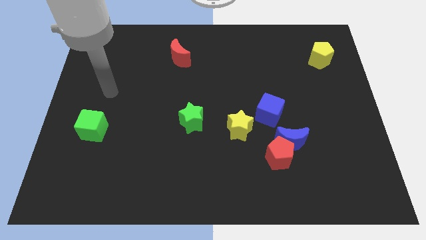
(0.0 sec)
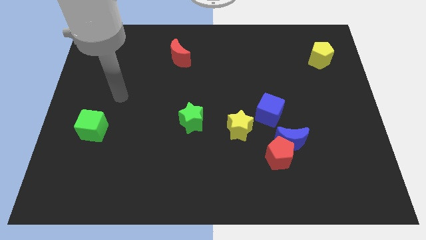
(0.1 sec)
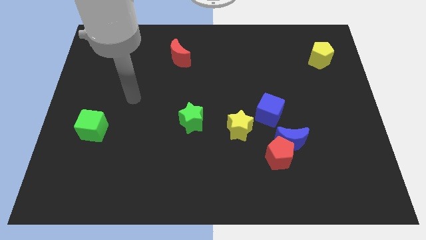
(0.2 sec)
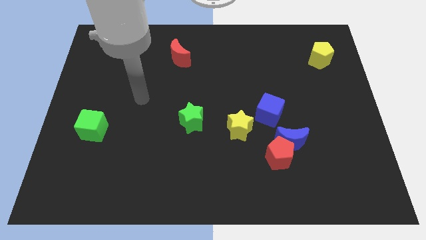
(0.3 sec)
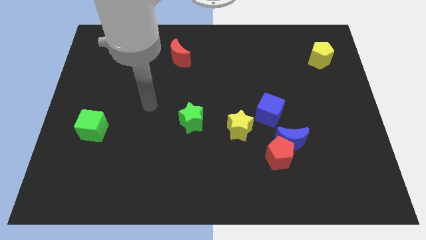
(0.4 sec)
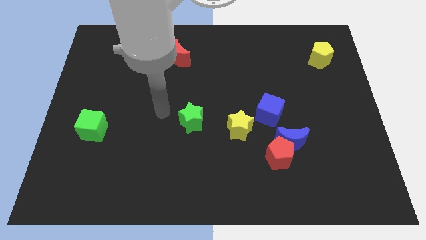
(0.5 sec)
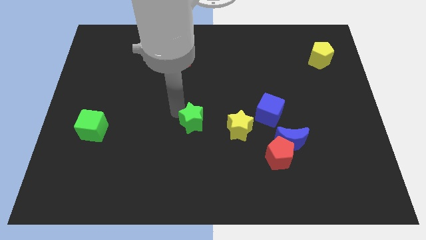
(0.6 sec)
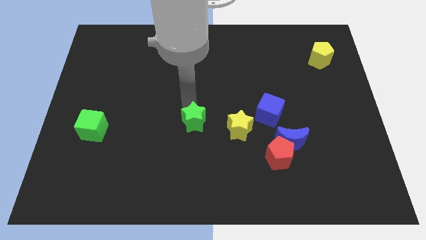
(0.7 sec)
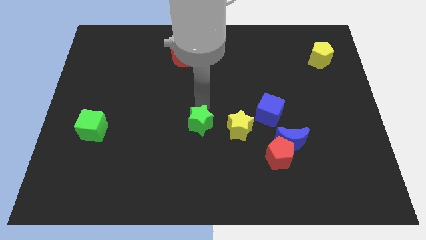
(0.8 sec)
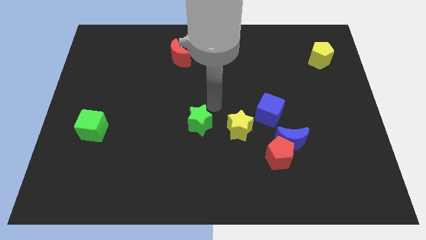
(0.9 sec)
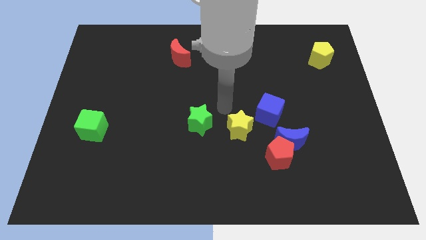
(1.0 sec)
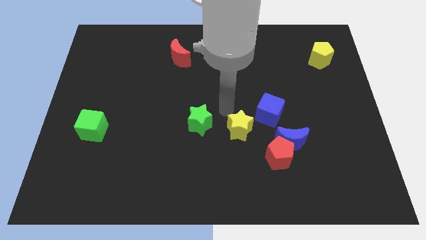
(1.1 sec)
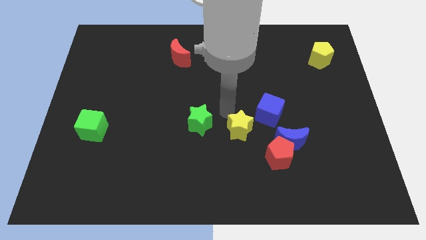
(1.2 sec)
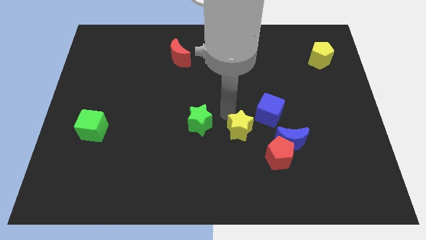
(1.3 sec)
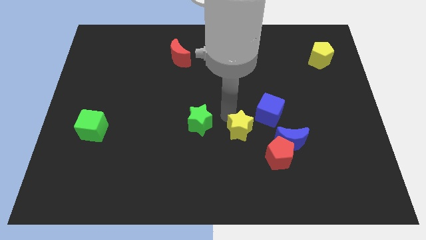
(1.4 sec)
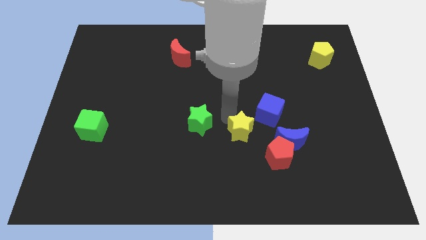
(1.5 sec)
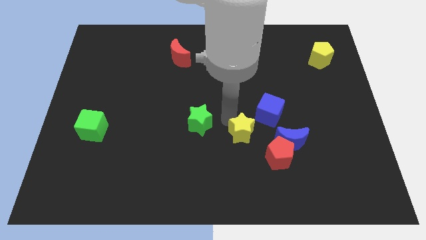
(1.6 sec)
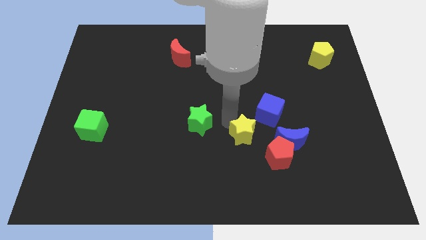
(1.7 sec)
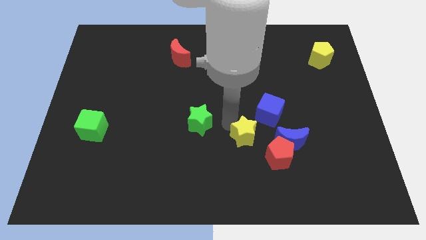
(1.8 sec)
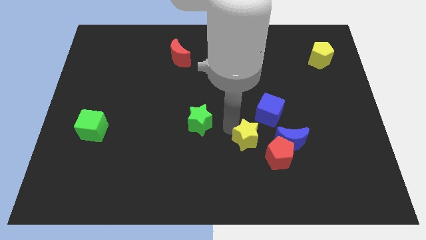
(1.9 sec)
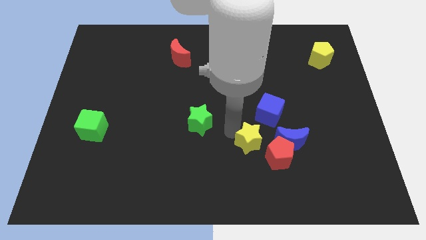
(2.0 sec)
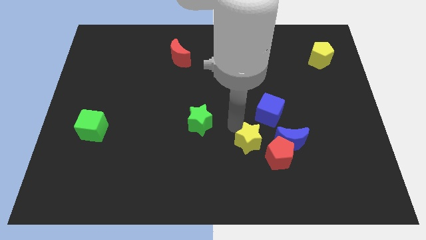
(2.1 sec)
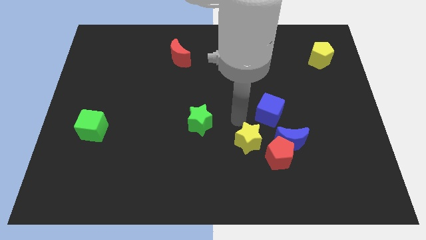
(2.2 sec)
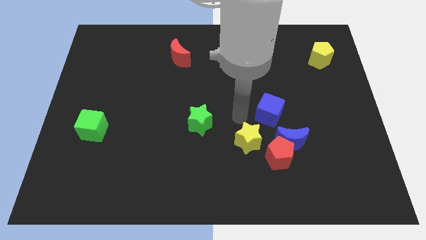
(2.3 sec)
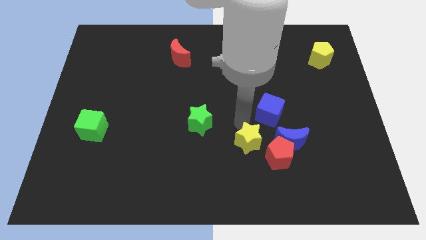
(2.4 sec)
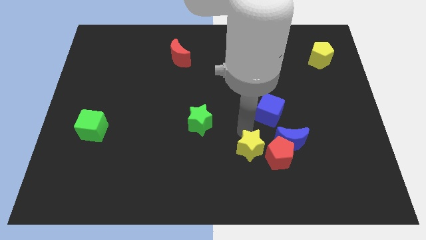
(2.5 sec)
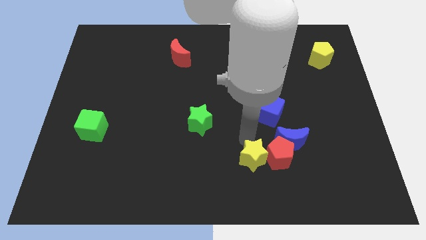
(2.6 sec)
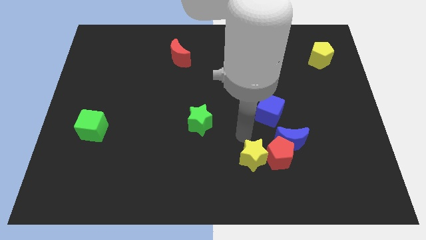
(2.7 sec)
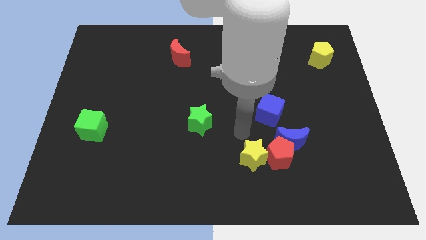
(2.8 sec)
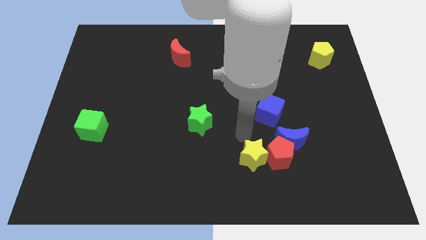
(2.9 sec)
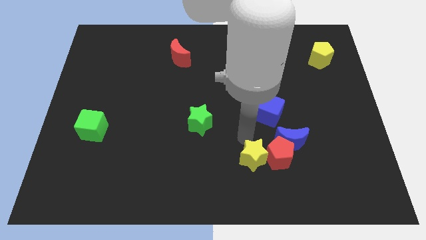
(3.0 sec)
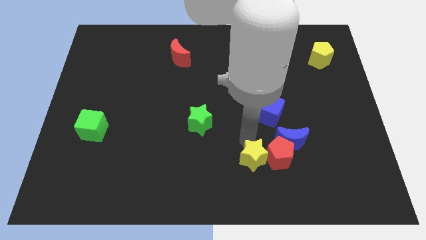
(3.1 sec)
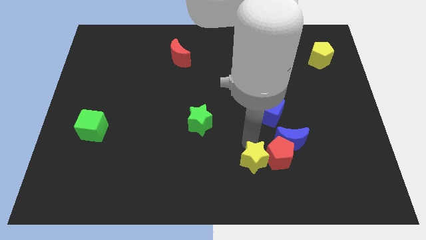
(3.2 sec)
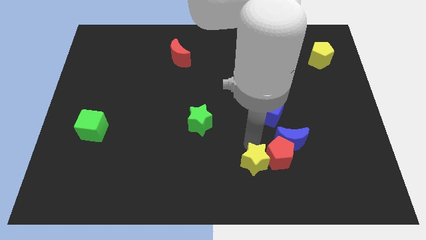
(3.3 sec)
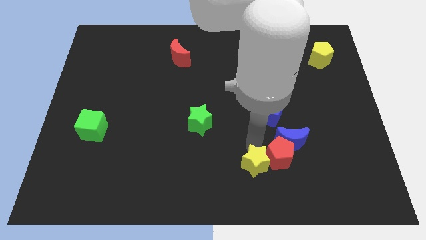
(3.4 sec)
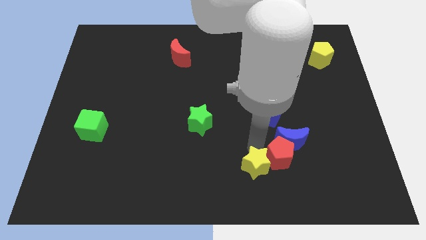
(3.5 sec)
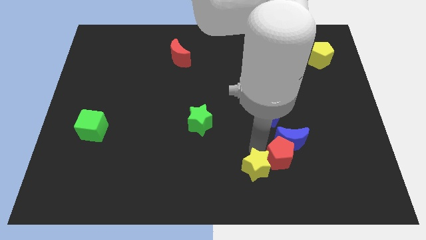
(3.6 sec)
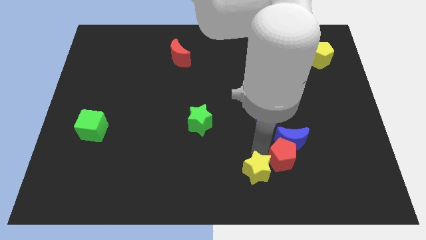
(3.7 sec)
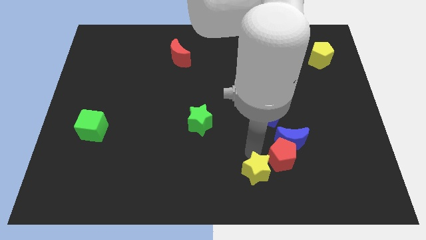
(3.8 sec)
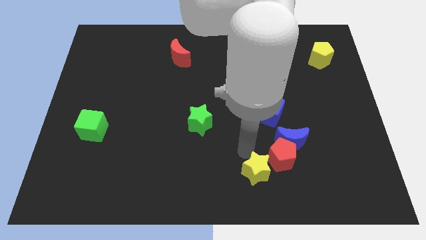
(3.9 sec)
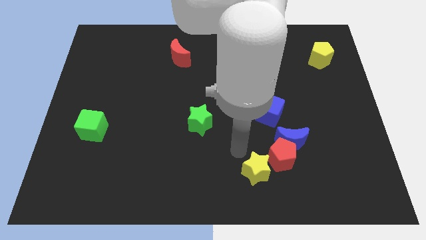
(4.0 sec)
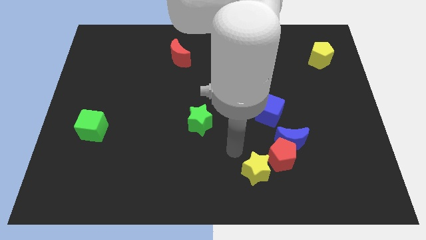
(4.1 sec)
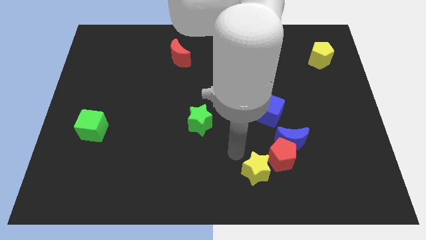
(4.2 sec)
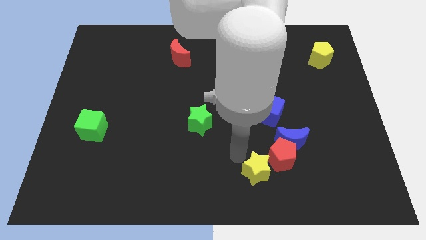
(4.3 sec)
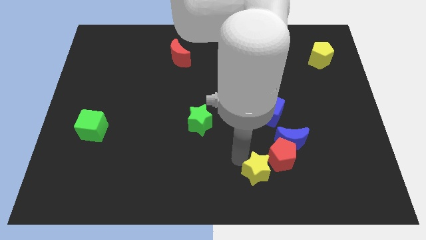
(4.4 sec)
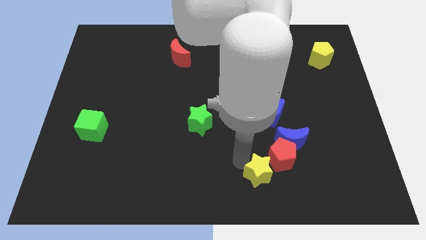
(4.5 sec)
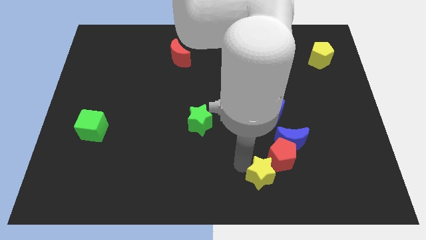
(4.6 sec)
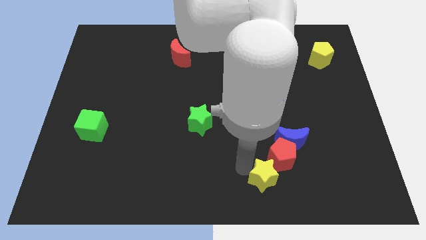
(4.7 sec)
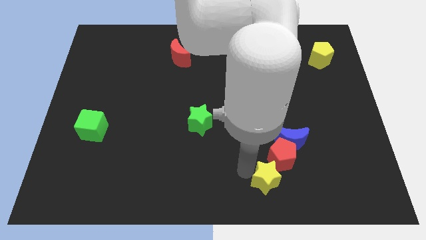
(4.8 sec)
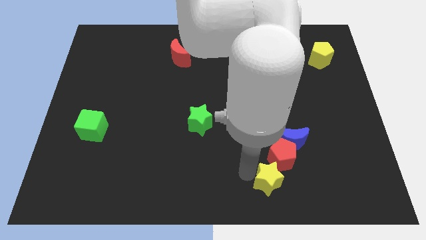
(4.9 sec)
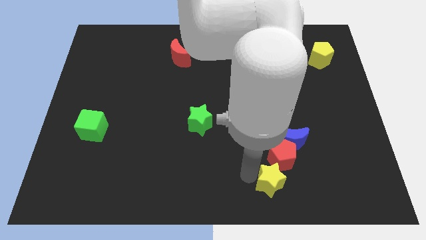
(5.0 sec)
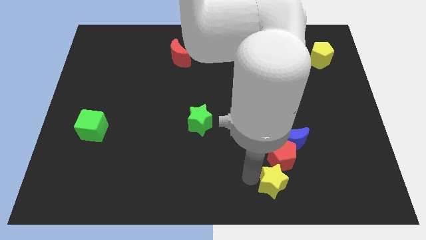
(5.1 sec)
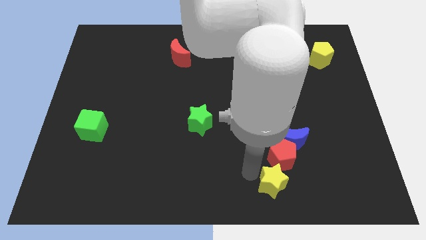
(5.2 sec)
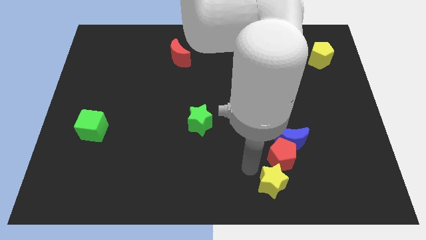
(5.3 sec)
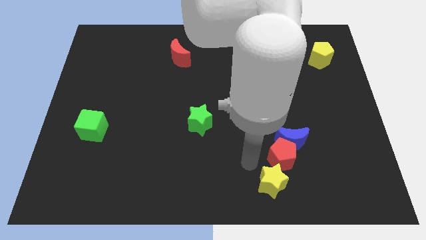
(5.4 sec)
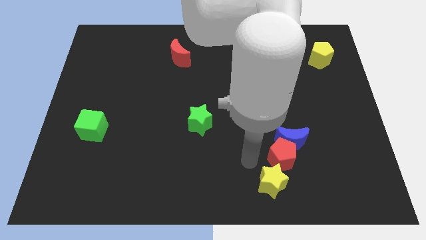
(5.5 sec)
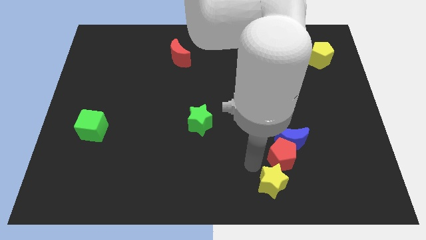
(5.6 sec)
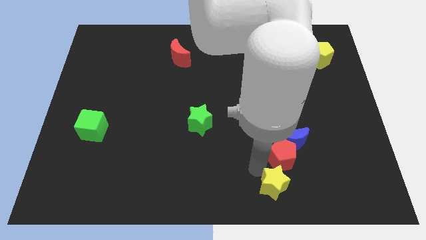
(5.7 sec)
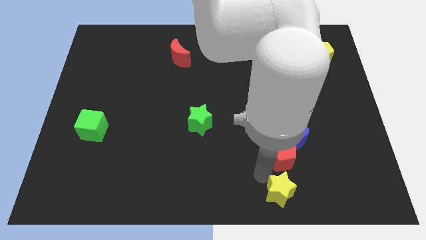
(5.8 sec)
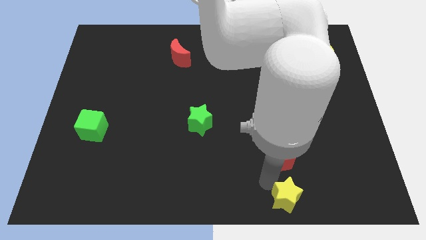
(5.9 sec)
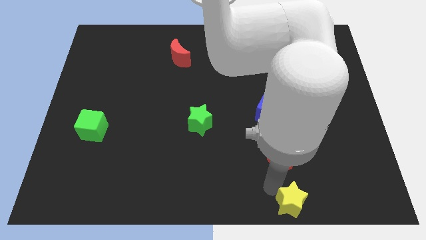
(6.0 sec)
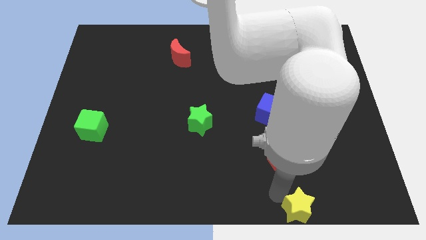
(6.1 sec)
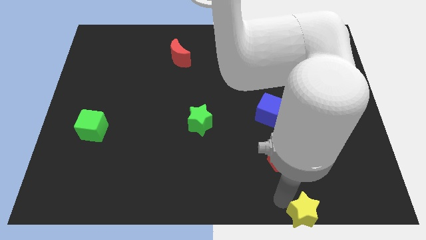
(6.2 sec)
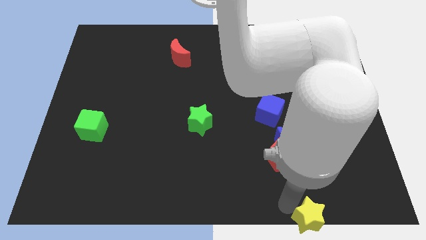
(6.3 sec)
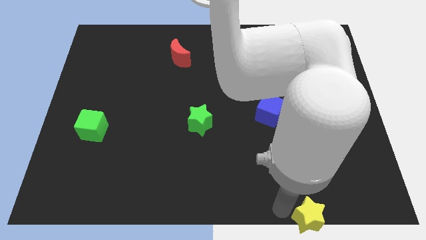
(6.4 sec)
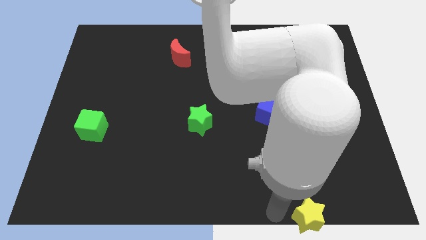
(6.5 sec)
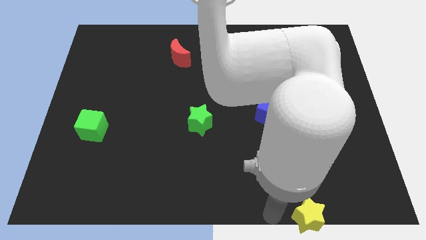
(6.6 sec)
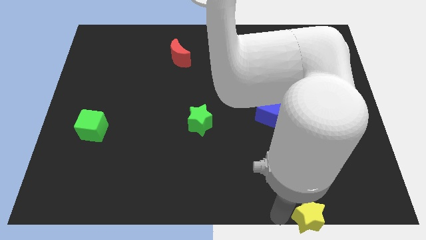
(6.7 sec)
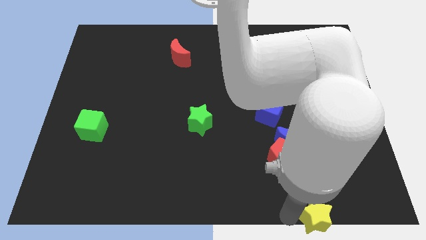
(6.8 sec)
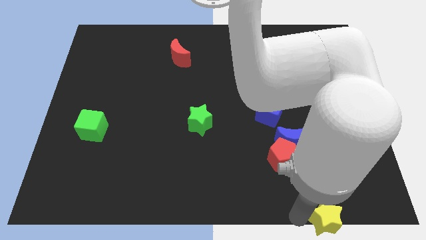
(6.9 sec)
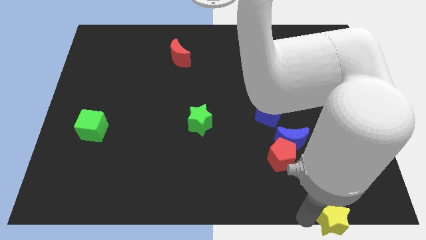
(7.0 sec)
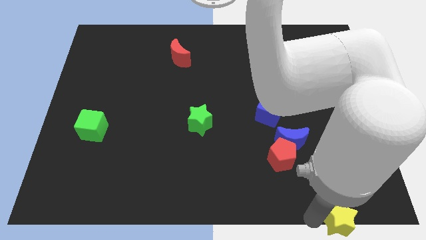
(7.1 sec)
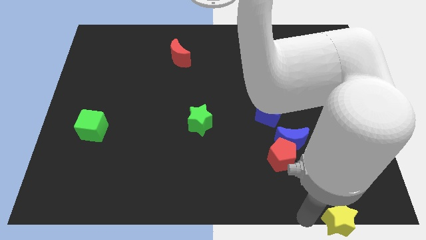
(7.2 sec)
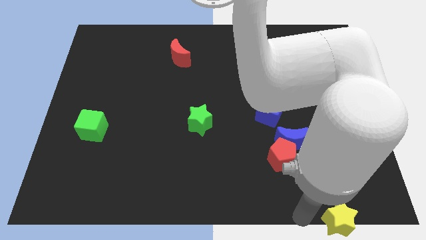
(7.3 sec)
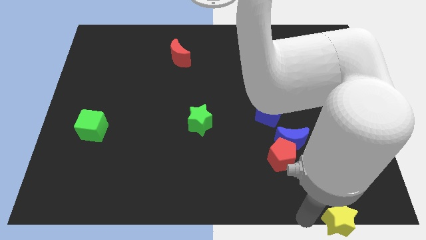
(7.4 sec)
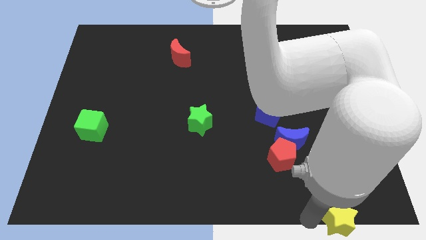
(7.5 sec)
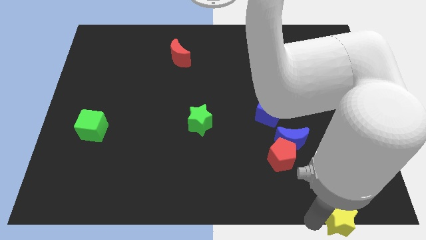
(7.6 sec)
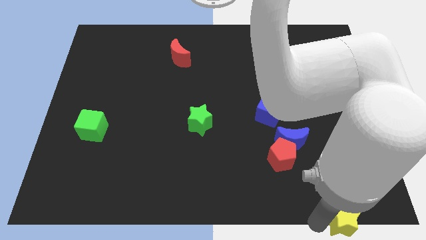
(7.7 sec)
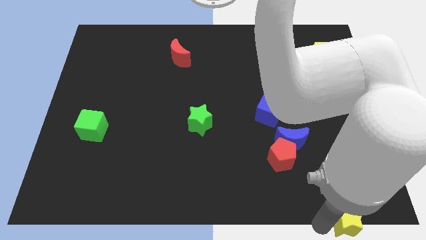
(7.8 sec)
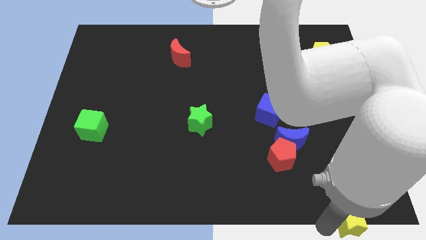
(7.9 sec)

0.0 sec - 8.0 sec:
slide the yellow star to the bottom right
